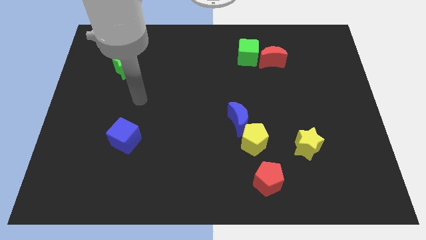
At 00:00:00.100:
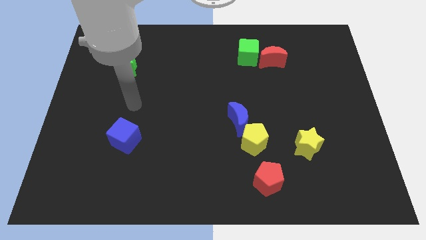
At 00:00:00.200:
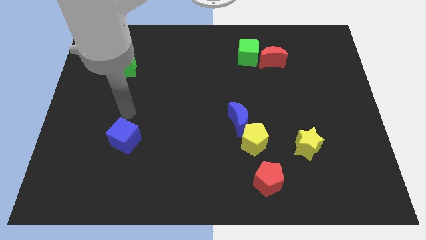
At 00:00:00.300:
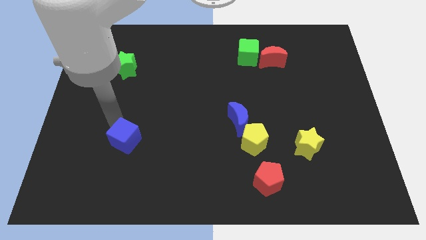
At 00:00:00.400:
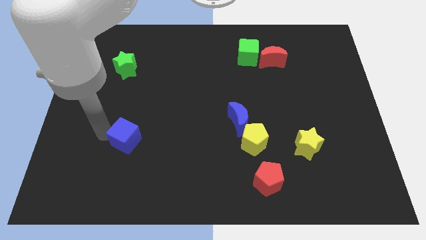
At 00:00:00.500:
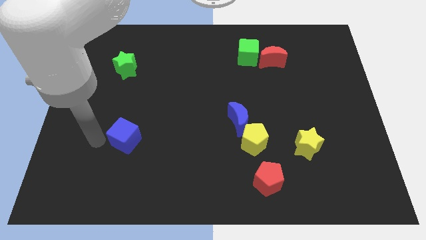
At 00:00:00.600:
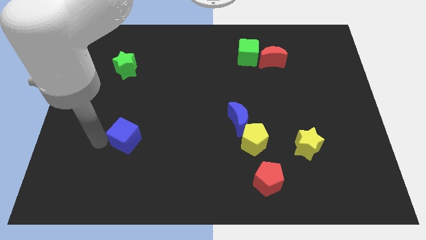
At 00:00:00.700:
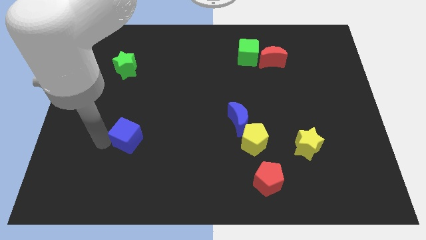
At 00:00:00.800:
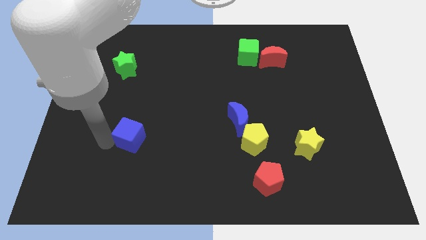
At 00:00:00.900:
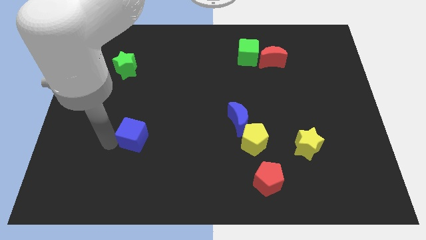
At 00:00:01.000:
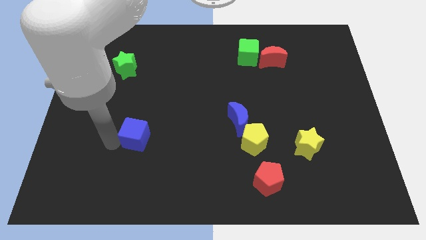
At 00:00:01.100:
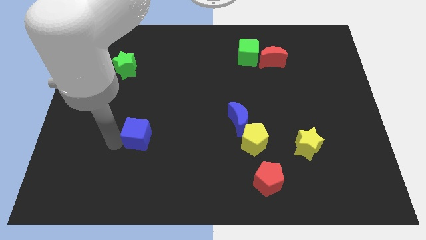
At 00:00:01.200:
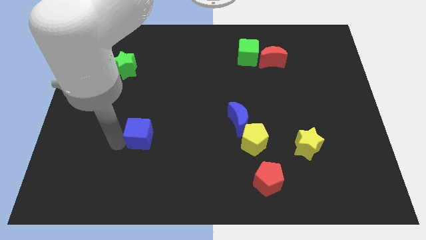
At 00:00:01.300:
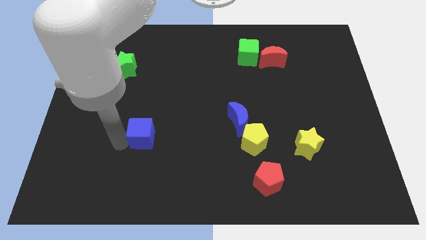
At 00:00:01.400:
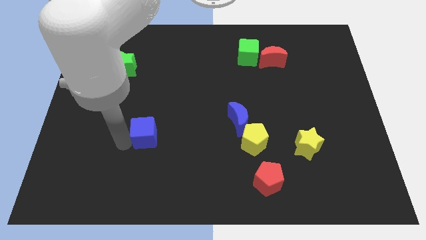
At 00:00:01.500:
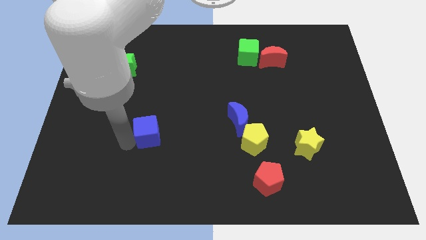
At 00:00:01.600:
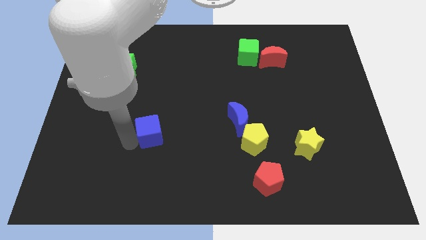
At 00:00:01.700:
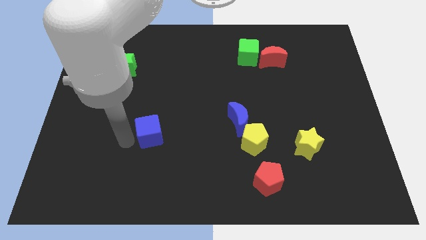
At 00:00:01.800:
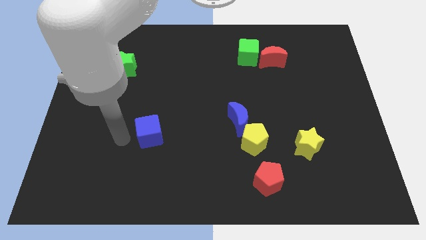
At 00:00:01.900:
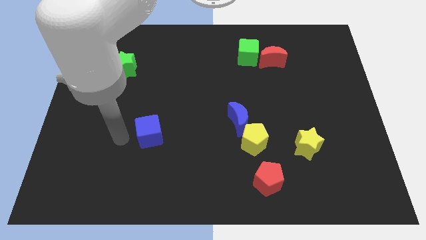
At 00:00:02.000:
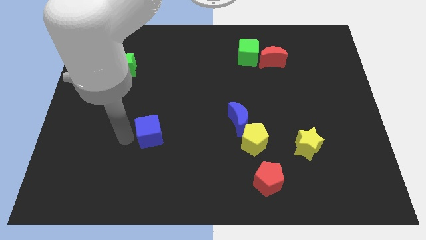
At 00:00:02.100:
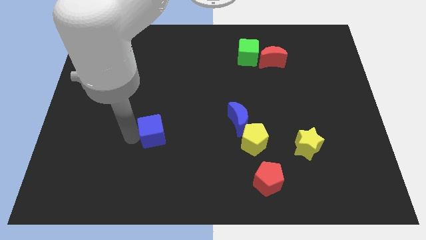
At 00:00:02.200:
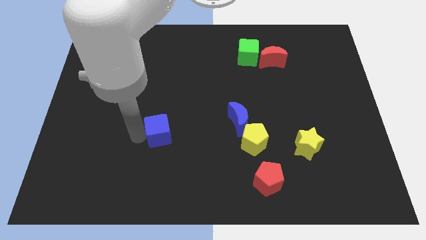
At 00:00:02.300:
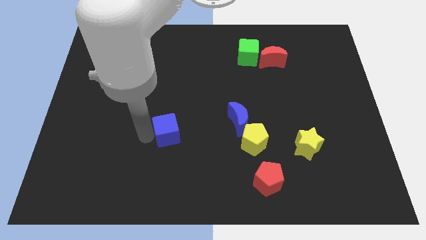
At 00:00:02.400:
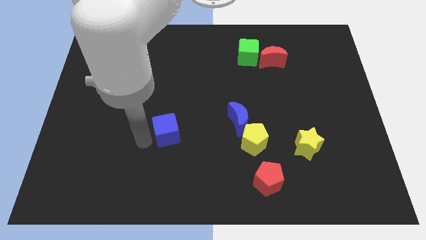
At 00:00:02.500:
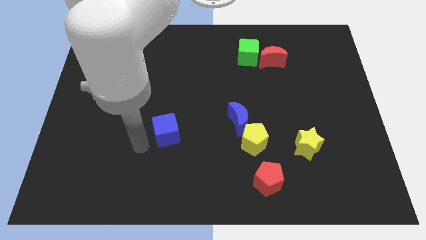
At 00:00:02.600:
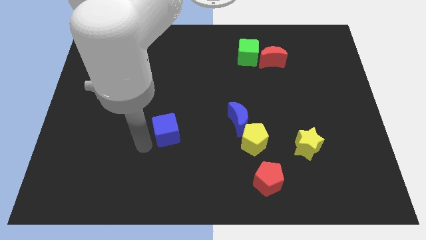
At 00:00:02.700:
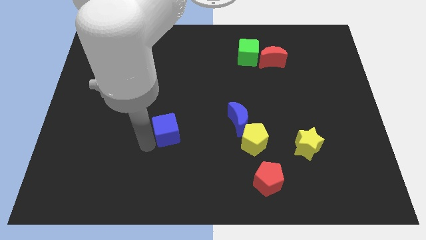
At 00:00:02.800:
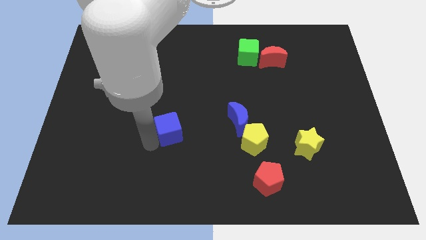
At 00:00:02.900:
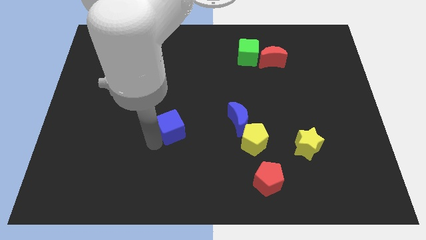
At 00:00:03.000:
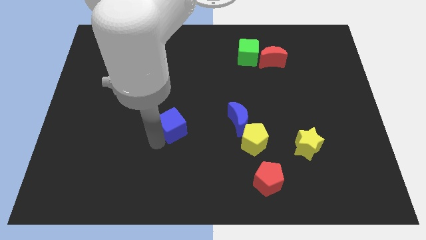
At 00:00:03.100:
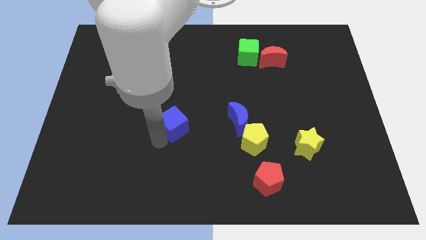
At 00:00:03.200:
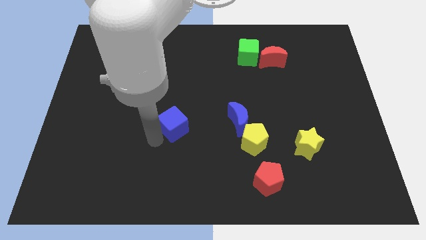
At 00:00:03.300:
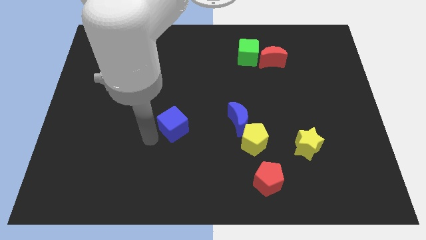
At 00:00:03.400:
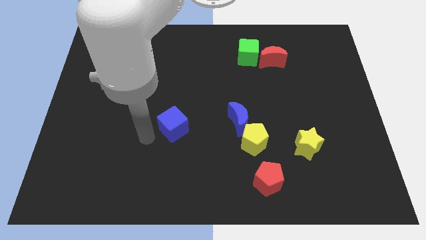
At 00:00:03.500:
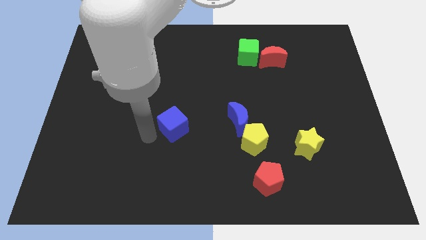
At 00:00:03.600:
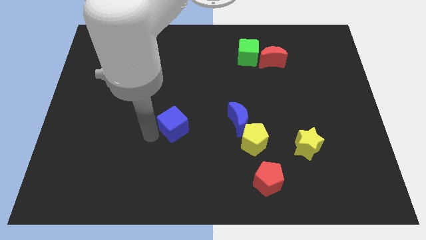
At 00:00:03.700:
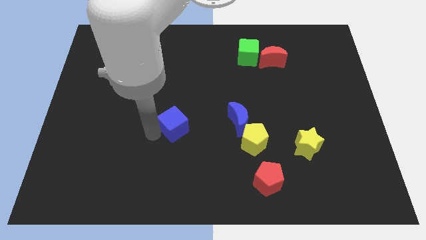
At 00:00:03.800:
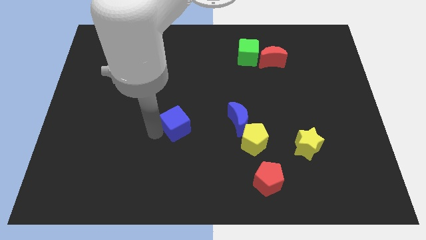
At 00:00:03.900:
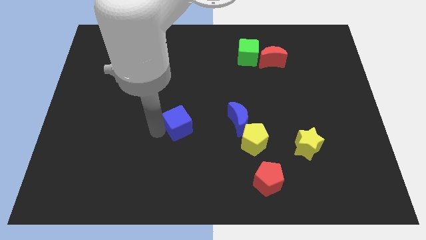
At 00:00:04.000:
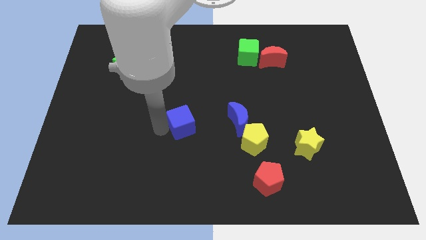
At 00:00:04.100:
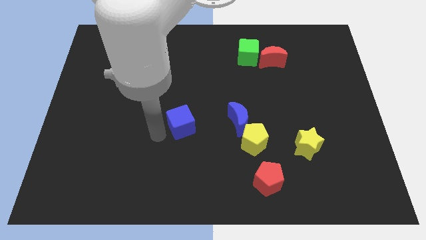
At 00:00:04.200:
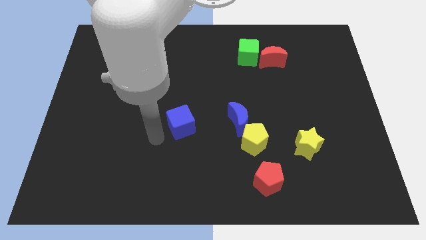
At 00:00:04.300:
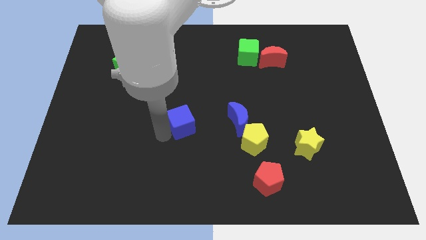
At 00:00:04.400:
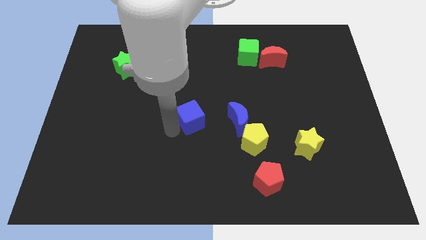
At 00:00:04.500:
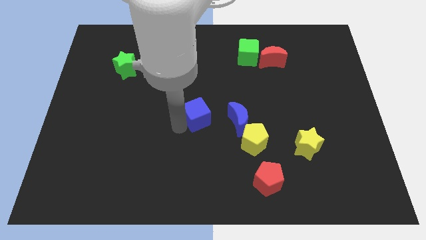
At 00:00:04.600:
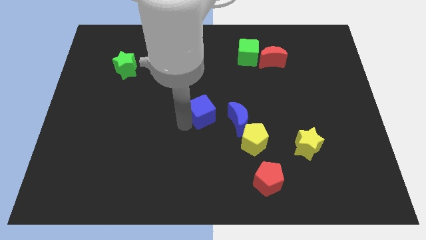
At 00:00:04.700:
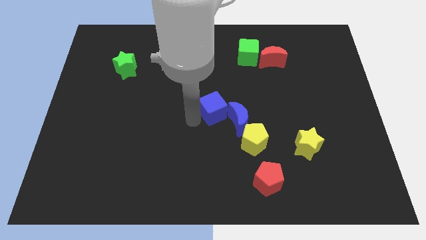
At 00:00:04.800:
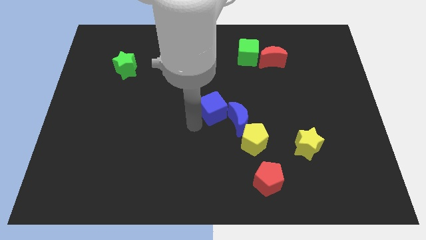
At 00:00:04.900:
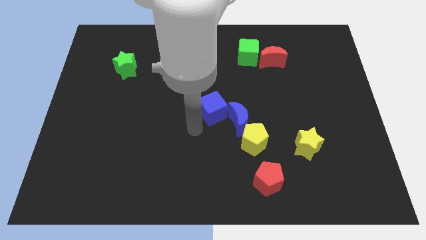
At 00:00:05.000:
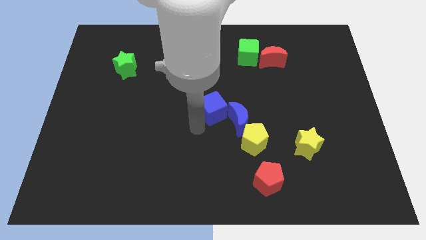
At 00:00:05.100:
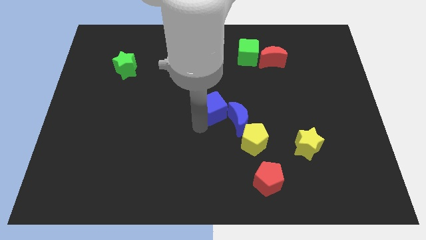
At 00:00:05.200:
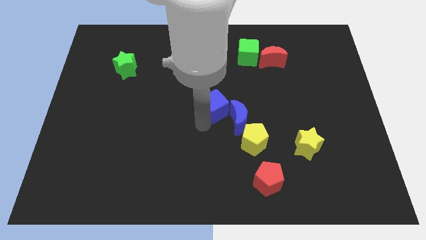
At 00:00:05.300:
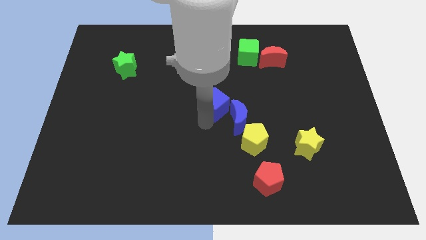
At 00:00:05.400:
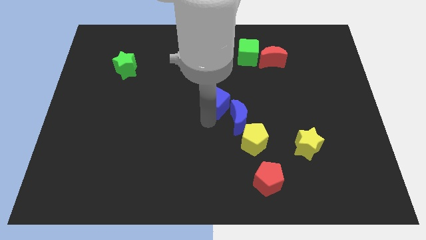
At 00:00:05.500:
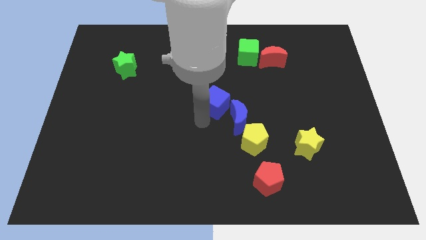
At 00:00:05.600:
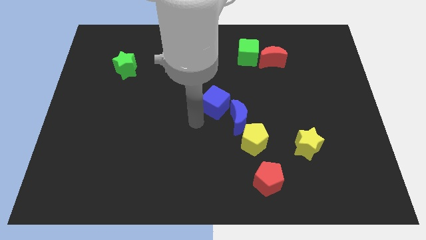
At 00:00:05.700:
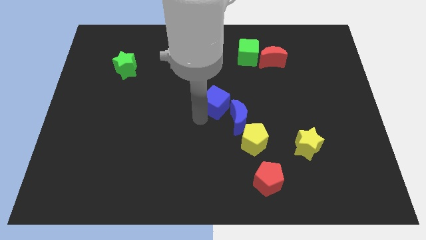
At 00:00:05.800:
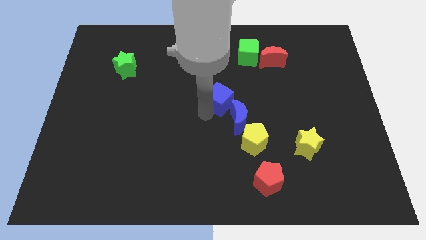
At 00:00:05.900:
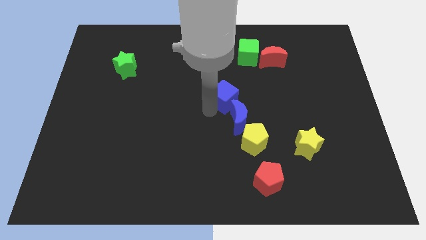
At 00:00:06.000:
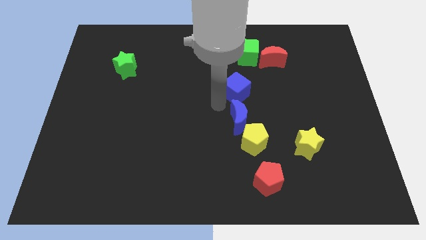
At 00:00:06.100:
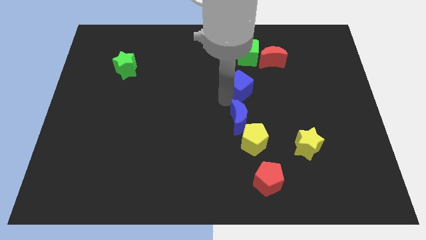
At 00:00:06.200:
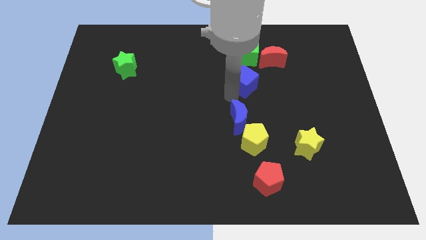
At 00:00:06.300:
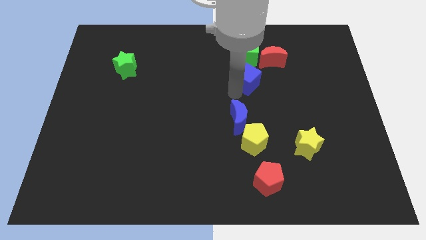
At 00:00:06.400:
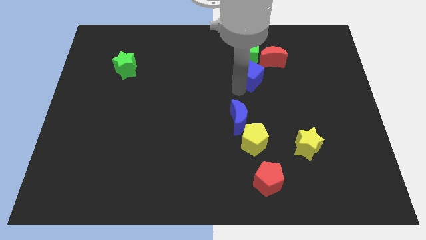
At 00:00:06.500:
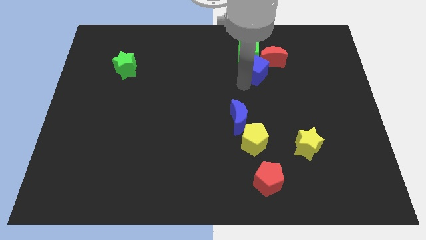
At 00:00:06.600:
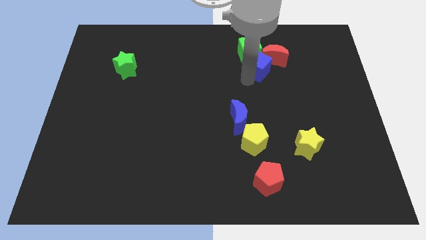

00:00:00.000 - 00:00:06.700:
slide the blue cube close to the red moon

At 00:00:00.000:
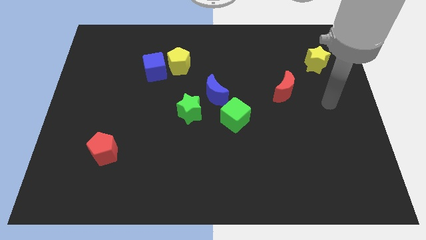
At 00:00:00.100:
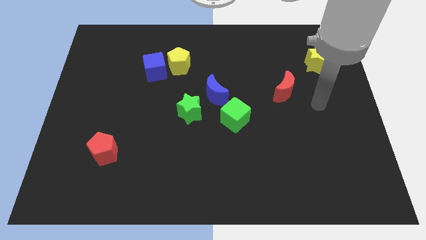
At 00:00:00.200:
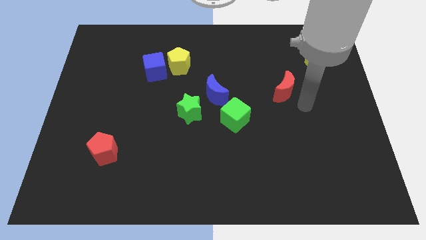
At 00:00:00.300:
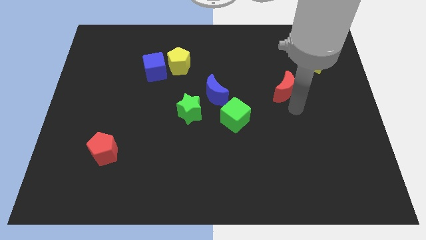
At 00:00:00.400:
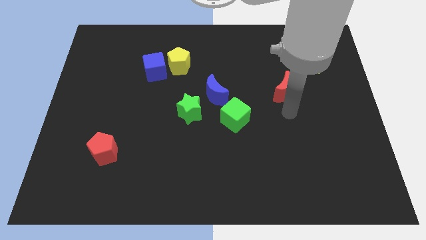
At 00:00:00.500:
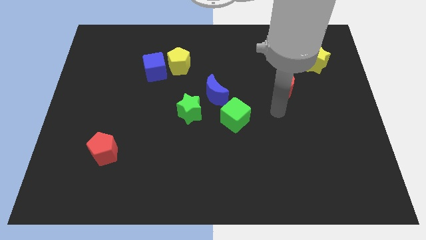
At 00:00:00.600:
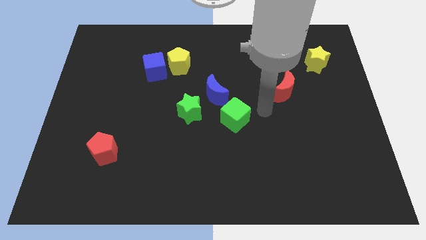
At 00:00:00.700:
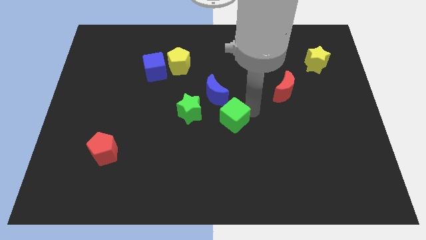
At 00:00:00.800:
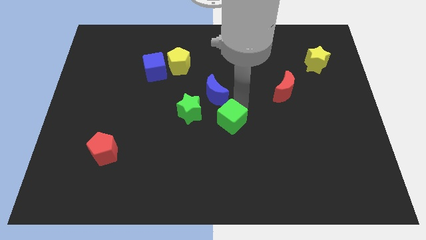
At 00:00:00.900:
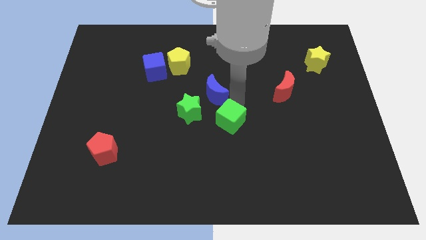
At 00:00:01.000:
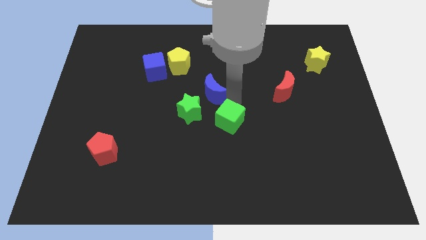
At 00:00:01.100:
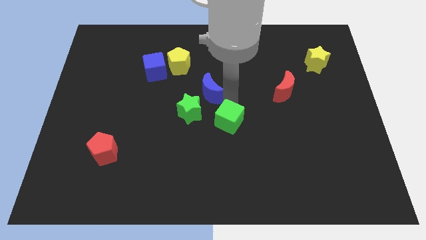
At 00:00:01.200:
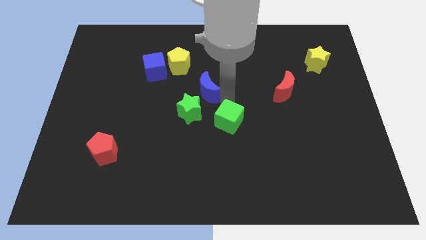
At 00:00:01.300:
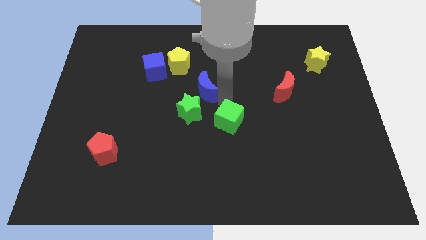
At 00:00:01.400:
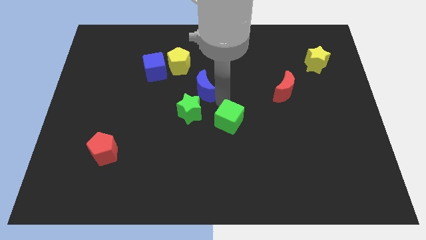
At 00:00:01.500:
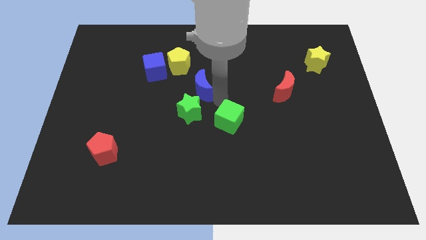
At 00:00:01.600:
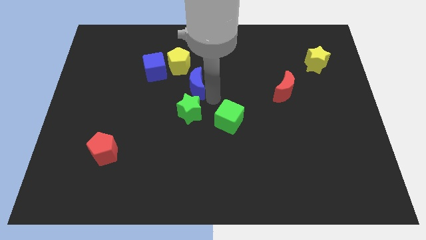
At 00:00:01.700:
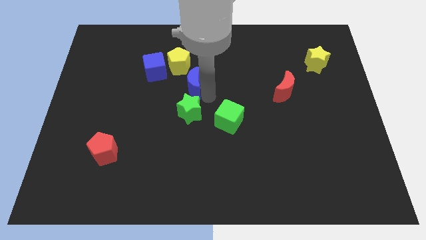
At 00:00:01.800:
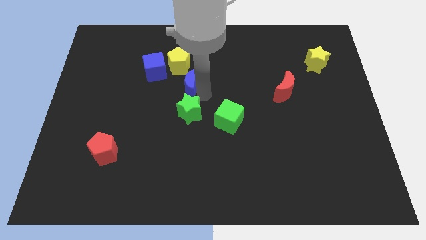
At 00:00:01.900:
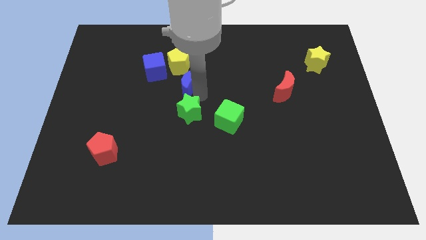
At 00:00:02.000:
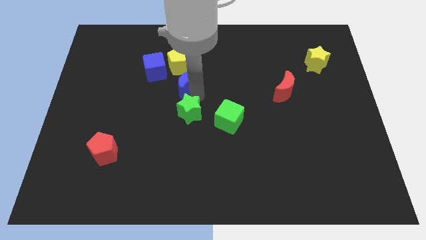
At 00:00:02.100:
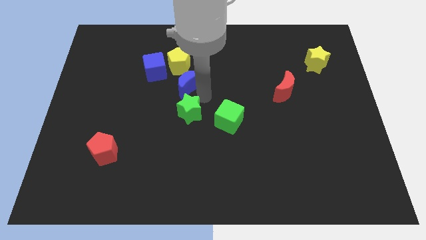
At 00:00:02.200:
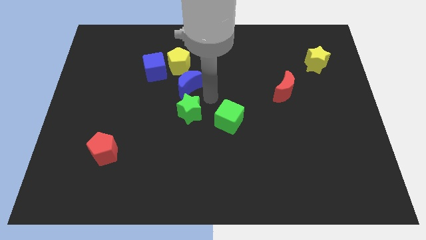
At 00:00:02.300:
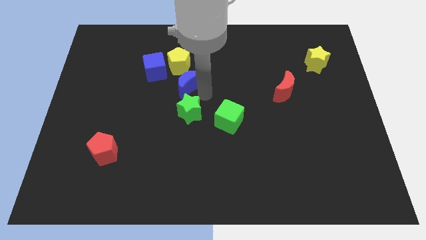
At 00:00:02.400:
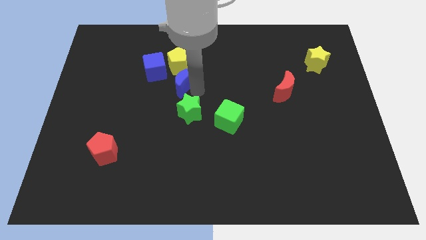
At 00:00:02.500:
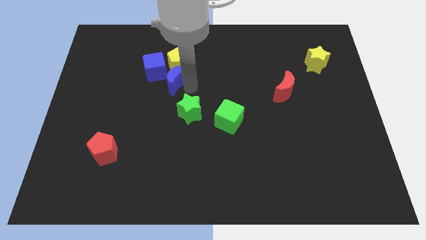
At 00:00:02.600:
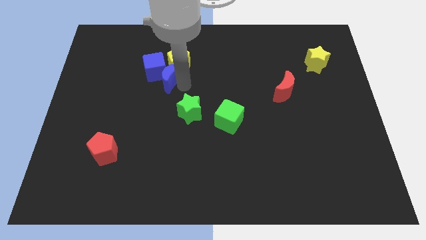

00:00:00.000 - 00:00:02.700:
move the blue moon towards the blue cube
